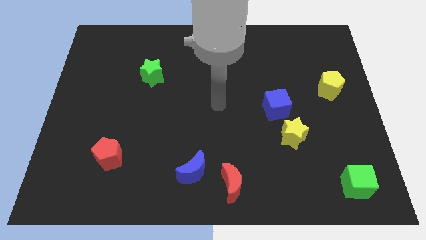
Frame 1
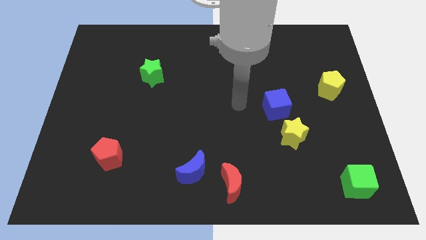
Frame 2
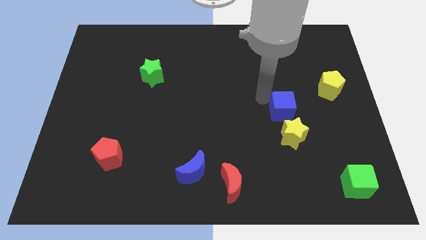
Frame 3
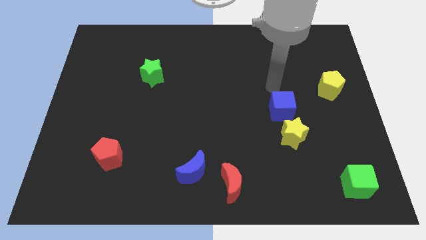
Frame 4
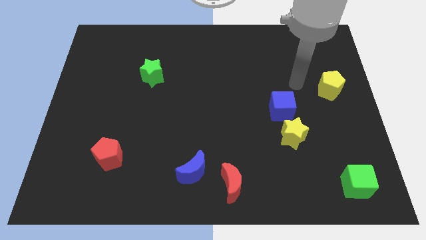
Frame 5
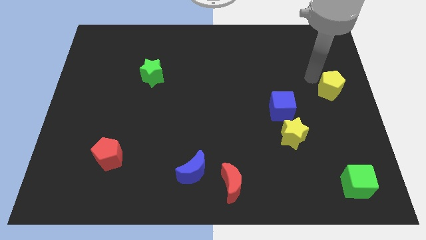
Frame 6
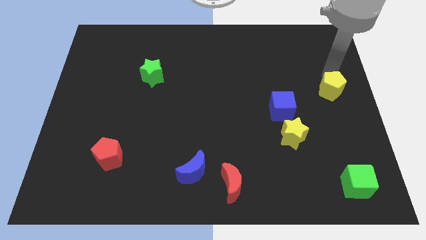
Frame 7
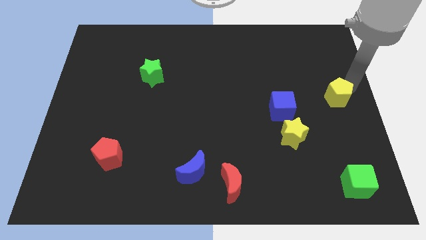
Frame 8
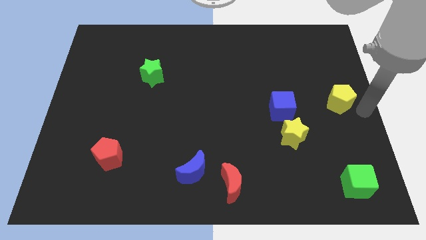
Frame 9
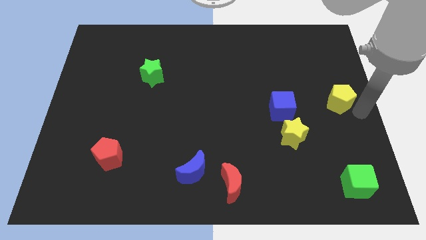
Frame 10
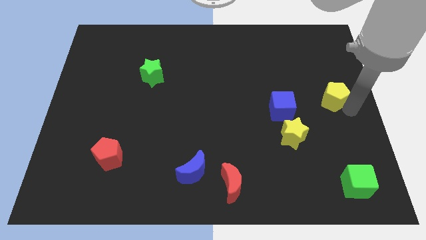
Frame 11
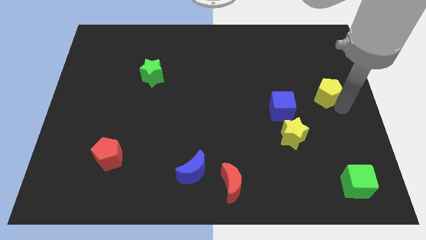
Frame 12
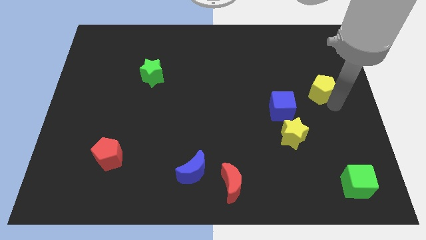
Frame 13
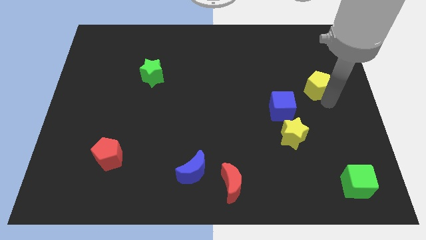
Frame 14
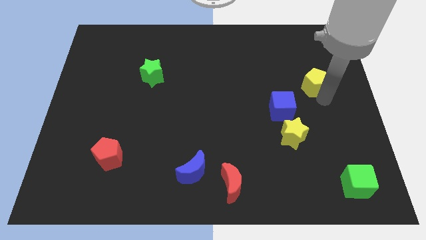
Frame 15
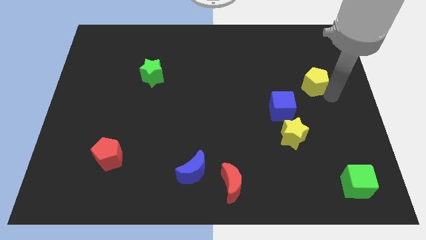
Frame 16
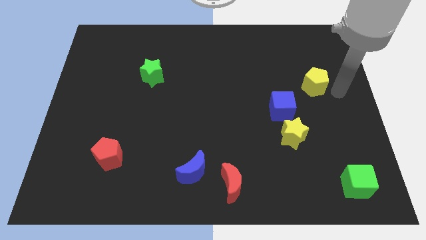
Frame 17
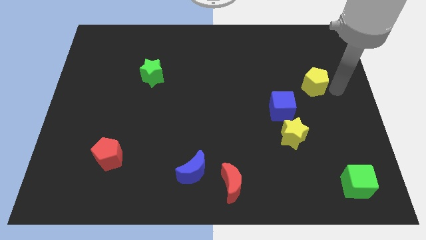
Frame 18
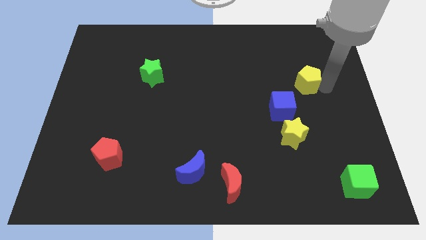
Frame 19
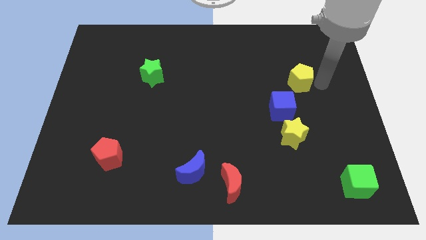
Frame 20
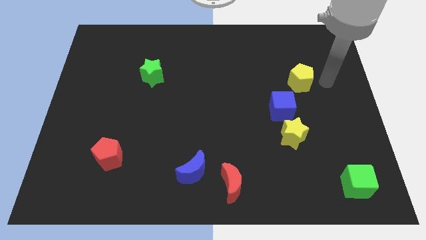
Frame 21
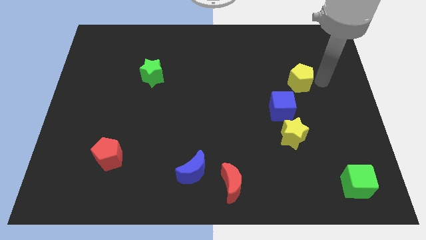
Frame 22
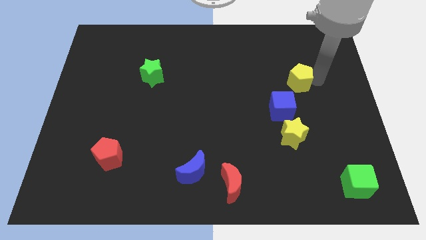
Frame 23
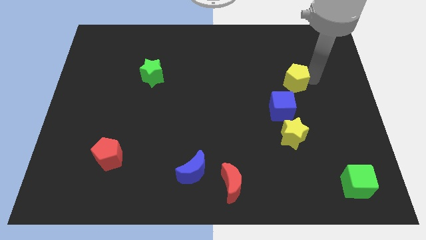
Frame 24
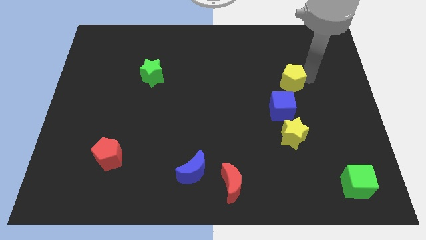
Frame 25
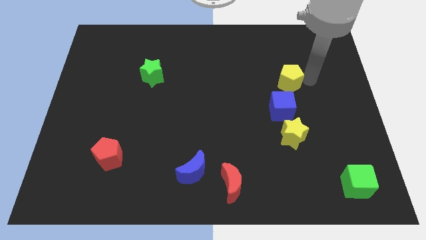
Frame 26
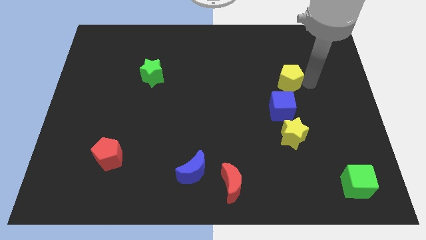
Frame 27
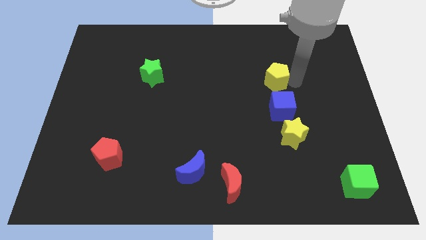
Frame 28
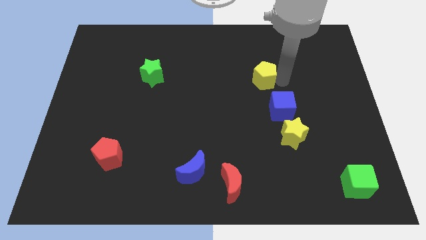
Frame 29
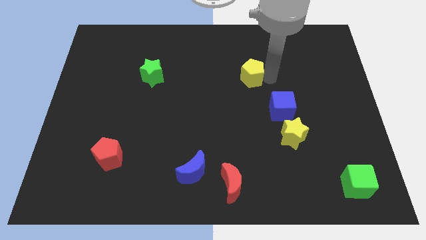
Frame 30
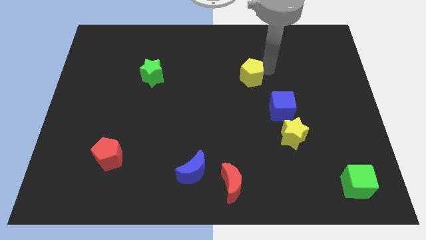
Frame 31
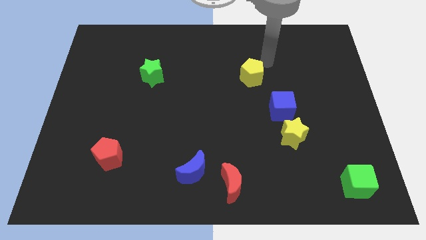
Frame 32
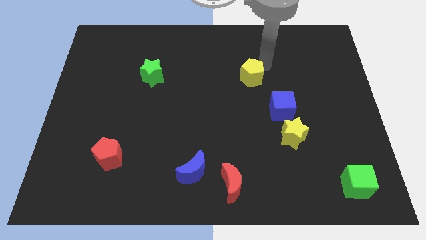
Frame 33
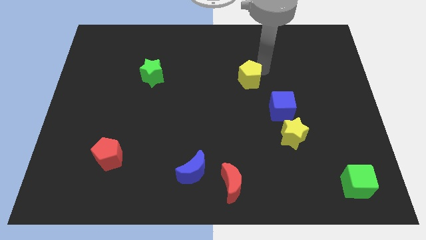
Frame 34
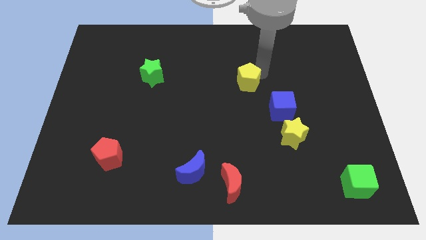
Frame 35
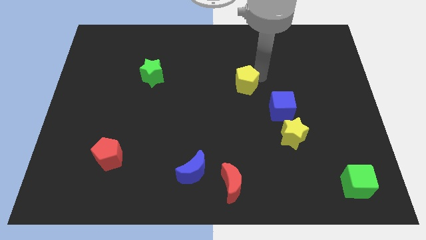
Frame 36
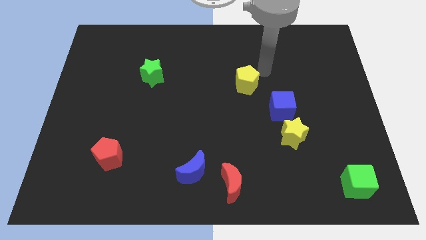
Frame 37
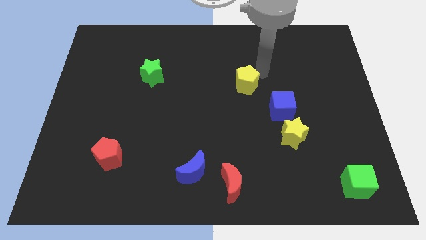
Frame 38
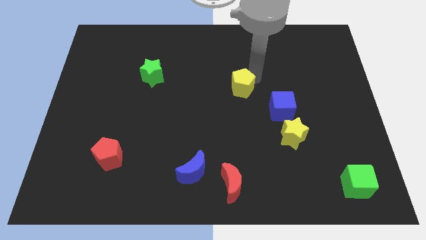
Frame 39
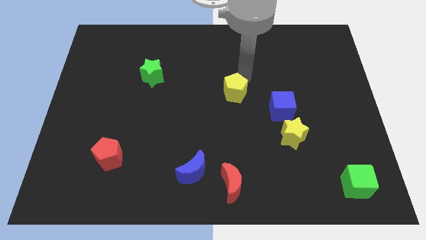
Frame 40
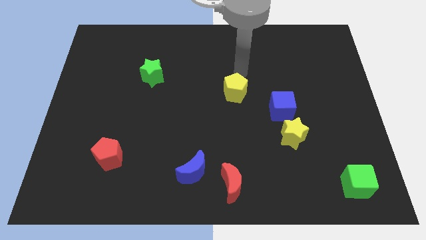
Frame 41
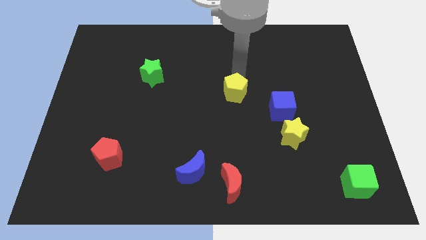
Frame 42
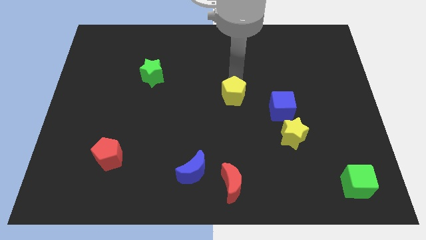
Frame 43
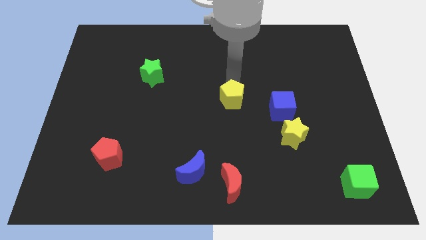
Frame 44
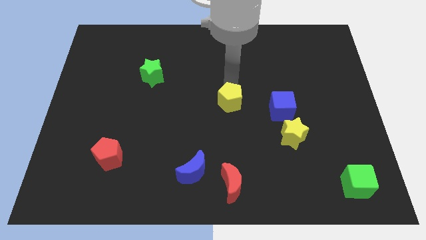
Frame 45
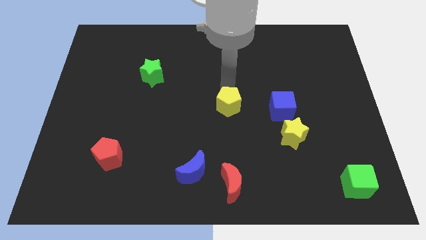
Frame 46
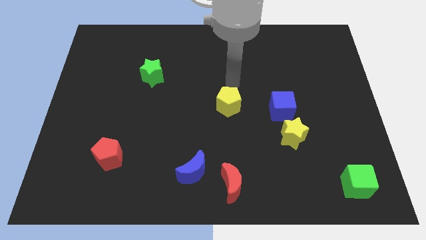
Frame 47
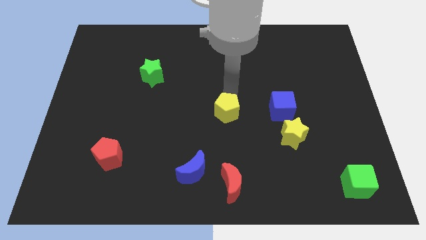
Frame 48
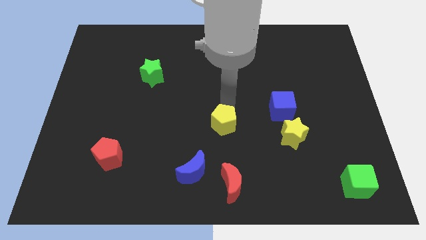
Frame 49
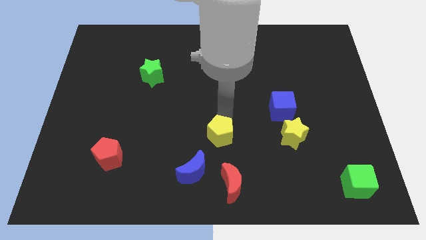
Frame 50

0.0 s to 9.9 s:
slide the yellow pentagon diagonally up and to the right of the blue moon

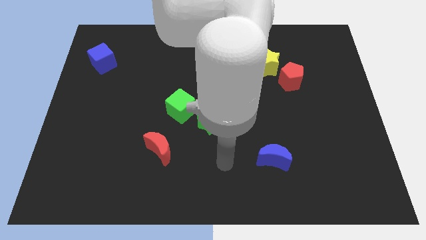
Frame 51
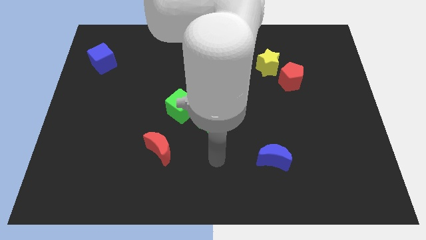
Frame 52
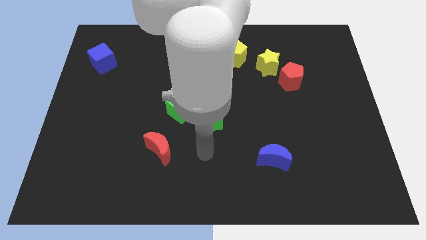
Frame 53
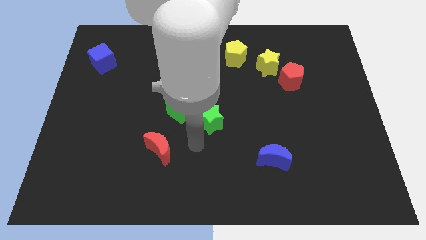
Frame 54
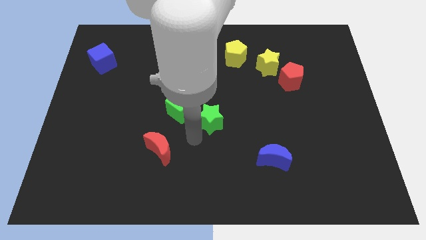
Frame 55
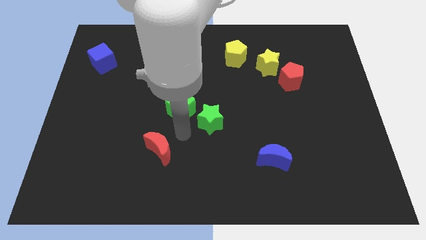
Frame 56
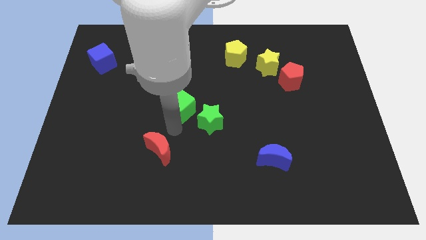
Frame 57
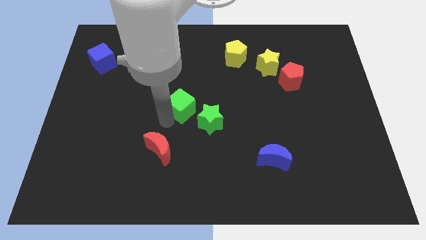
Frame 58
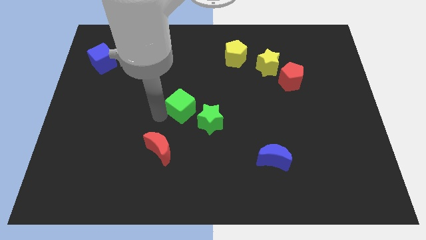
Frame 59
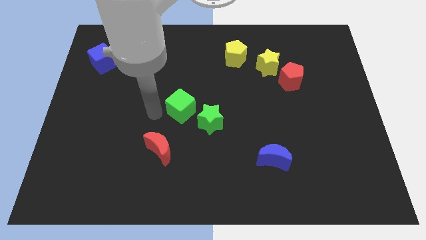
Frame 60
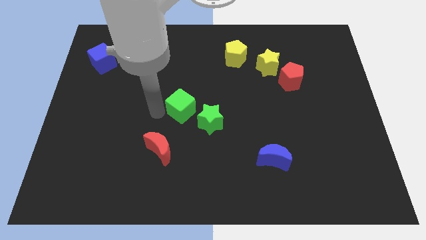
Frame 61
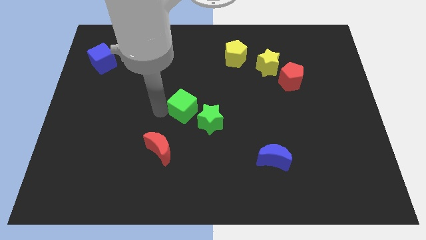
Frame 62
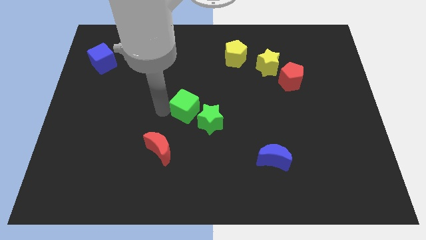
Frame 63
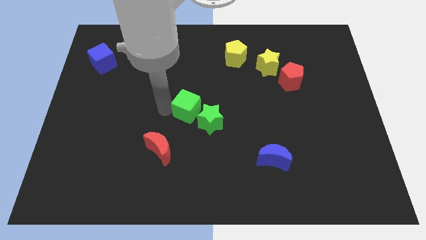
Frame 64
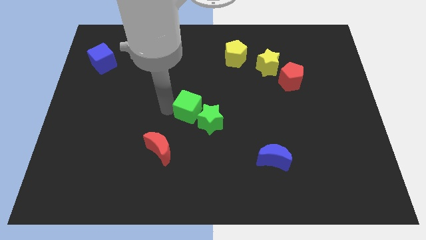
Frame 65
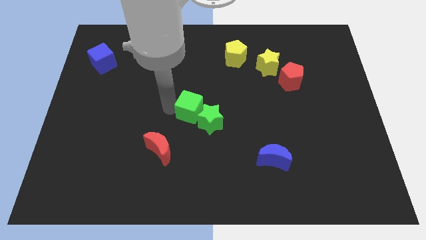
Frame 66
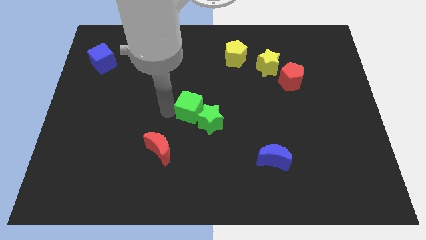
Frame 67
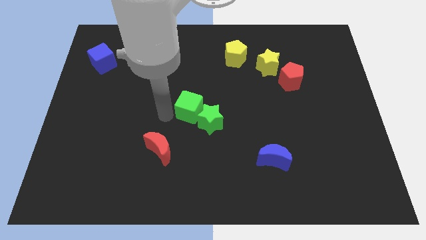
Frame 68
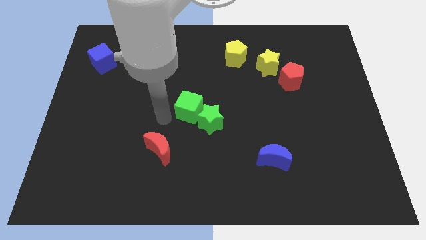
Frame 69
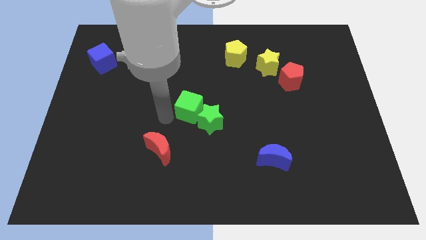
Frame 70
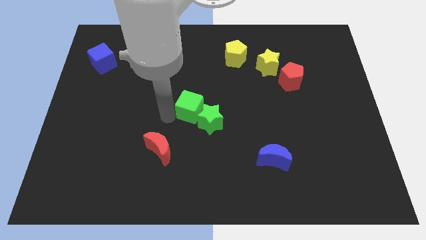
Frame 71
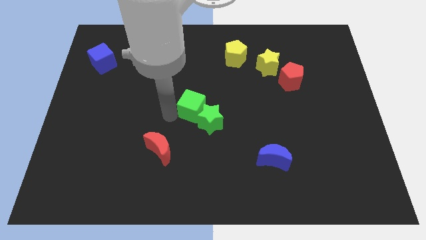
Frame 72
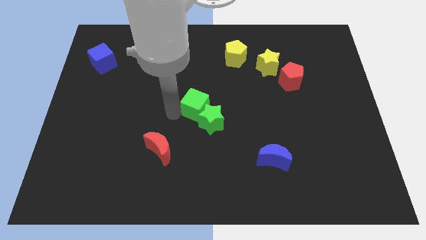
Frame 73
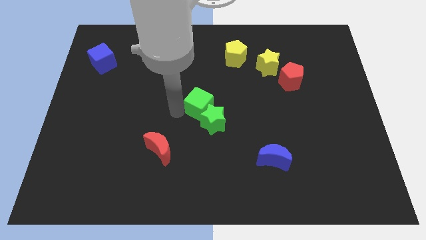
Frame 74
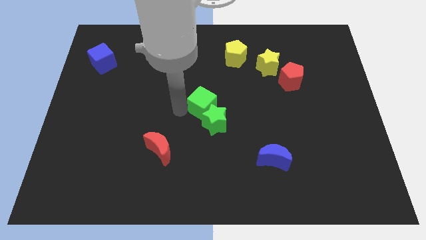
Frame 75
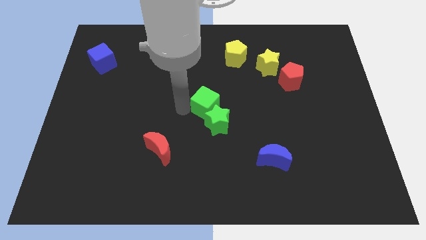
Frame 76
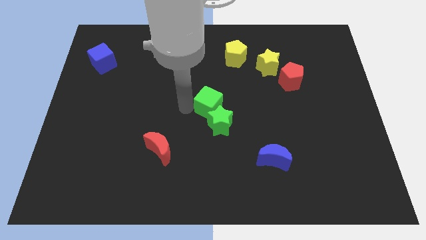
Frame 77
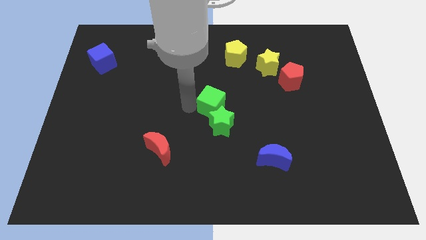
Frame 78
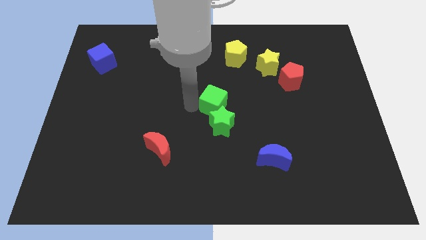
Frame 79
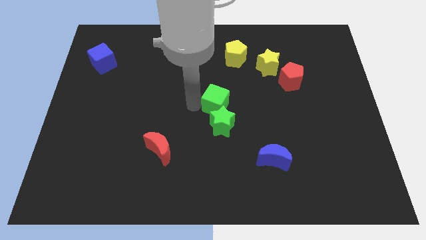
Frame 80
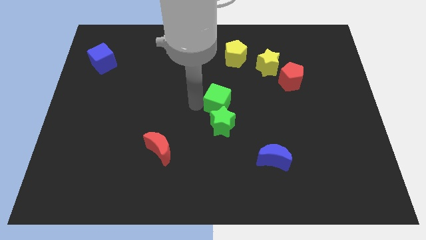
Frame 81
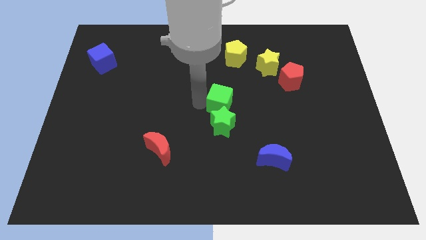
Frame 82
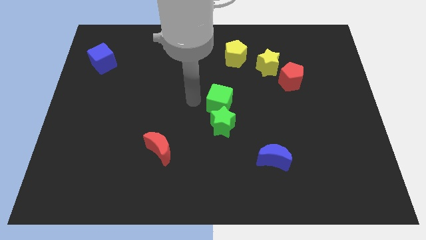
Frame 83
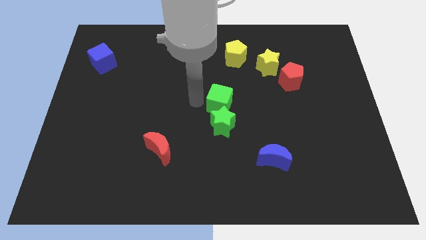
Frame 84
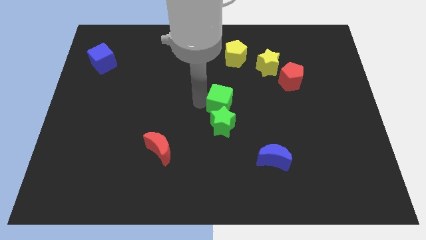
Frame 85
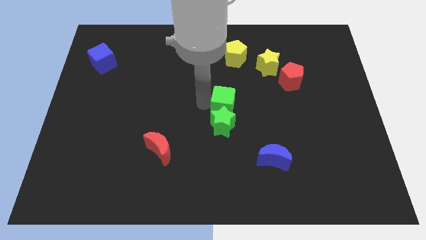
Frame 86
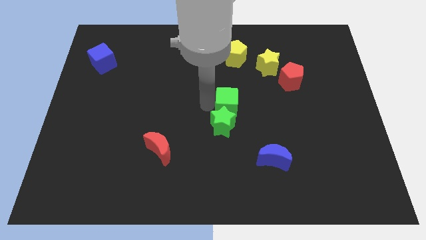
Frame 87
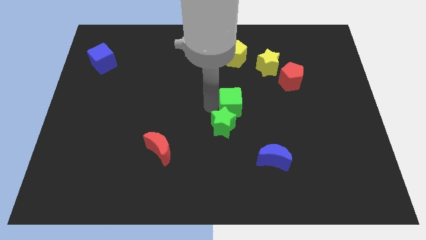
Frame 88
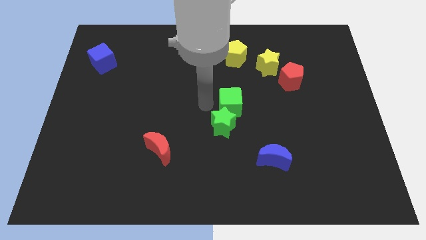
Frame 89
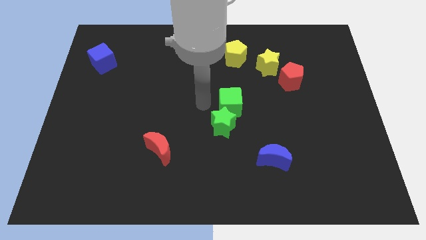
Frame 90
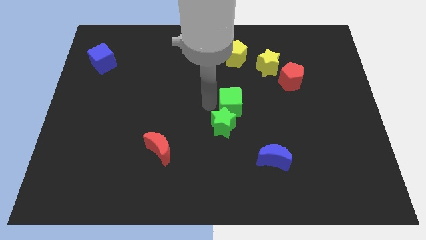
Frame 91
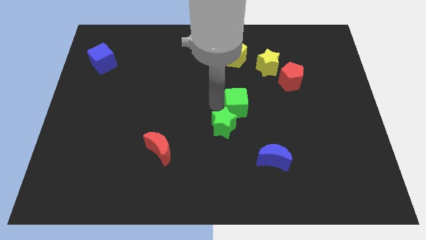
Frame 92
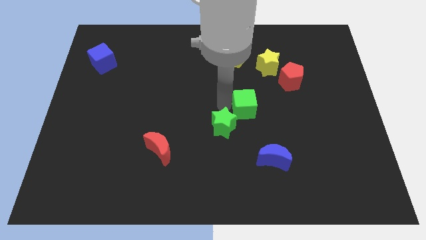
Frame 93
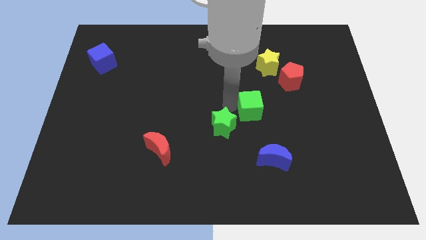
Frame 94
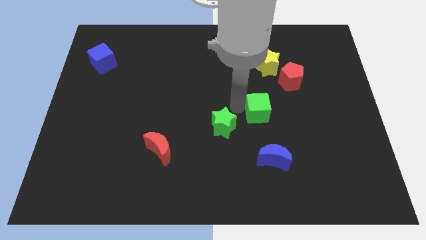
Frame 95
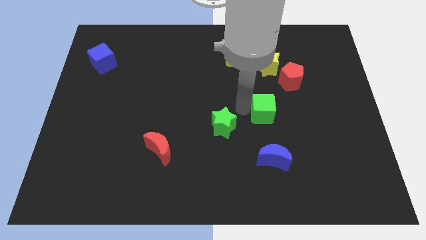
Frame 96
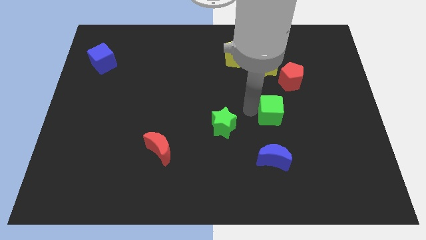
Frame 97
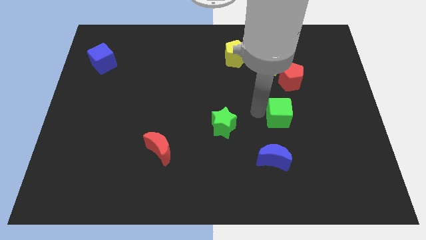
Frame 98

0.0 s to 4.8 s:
push the green cube to the bottom of the red pentagon
